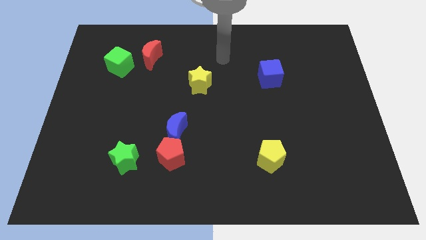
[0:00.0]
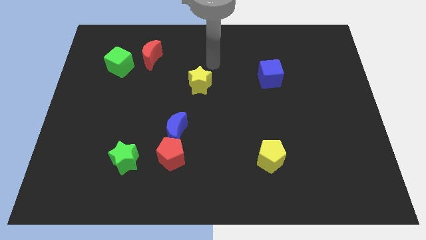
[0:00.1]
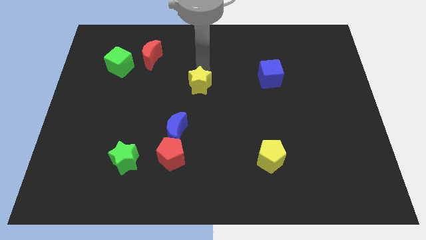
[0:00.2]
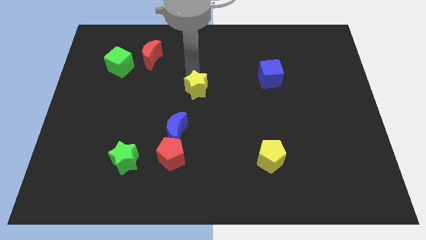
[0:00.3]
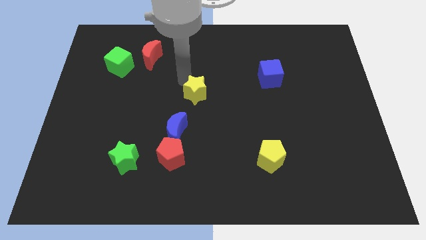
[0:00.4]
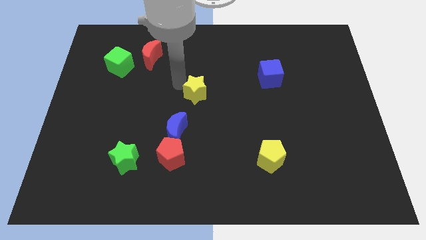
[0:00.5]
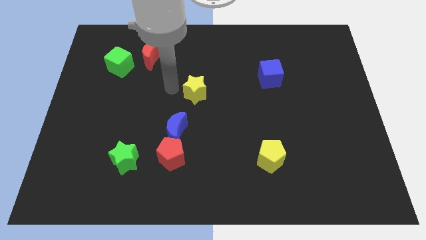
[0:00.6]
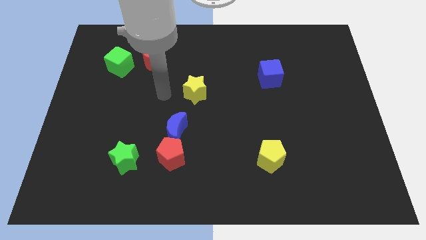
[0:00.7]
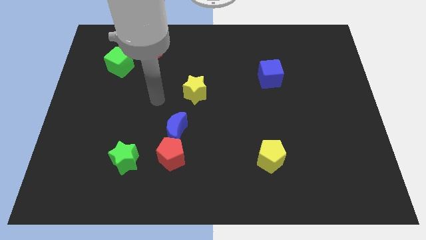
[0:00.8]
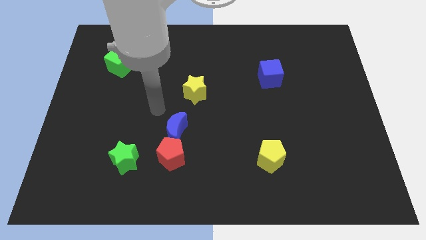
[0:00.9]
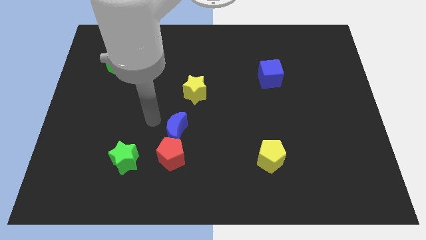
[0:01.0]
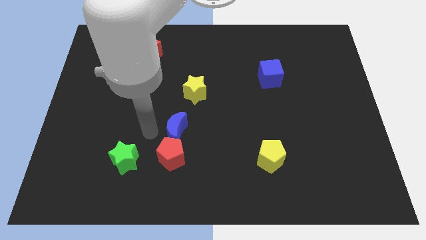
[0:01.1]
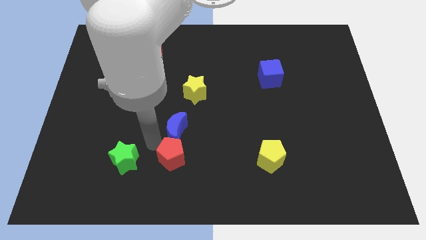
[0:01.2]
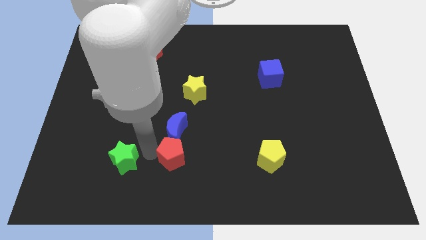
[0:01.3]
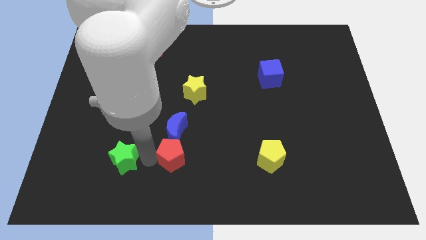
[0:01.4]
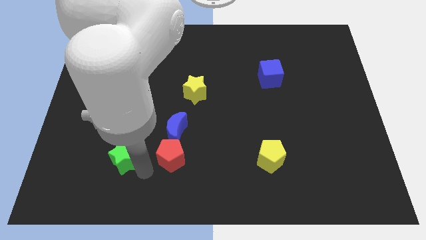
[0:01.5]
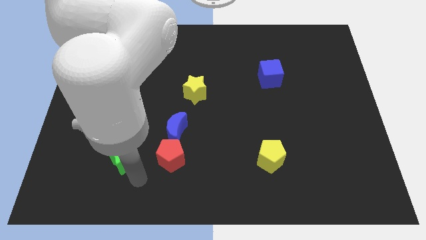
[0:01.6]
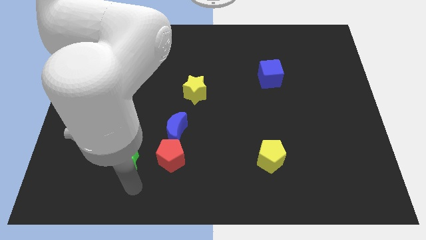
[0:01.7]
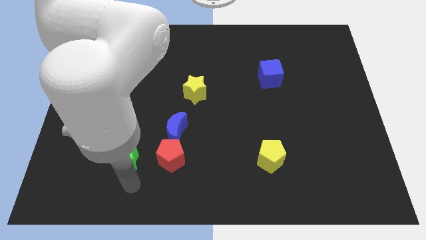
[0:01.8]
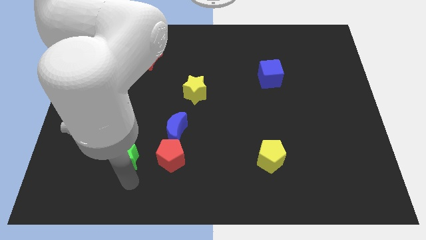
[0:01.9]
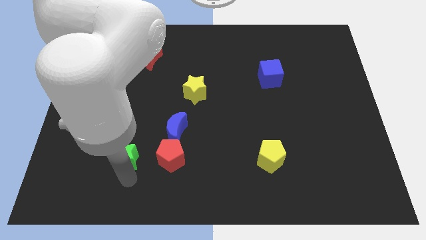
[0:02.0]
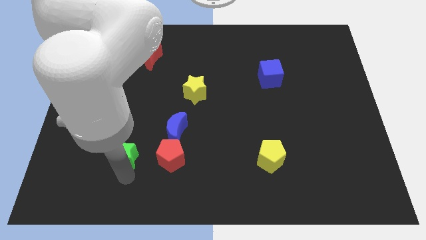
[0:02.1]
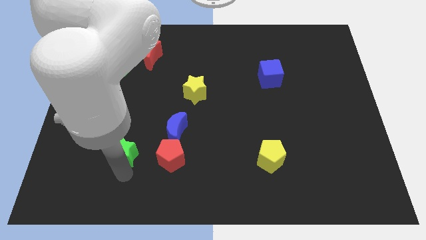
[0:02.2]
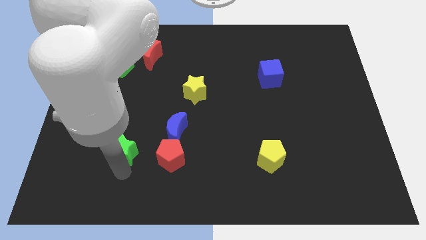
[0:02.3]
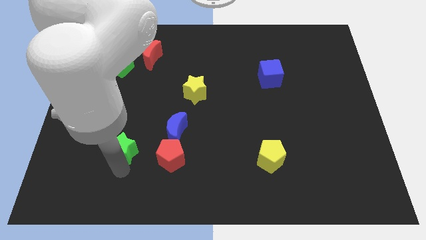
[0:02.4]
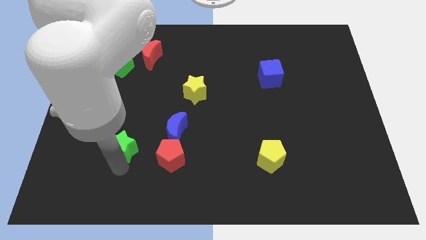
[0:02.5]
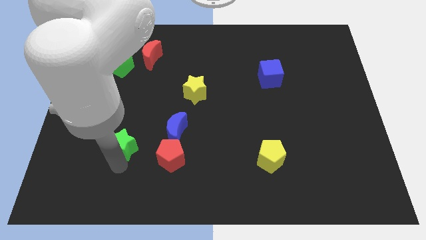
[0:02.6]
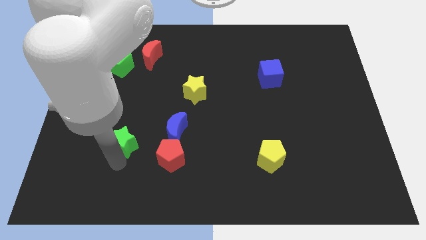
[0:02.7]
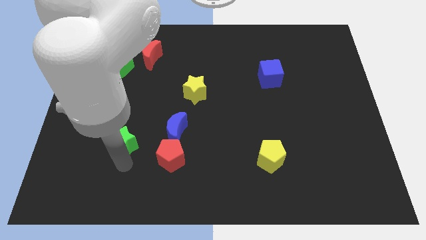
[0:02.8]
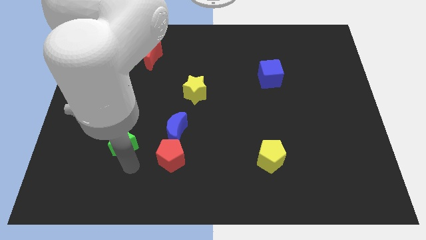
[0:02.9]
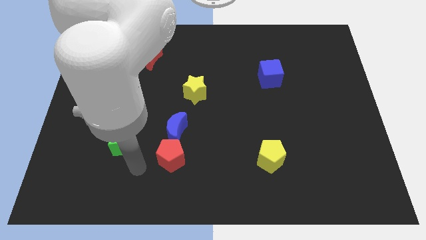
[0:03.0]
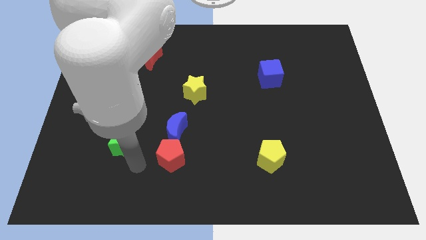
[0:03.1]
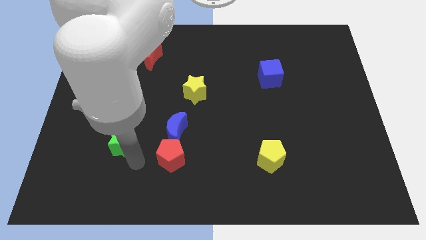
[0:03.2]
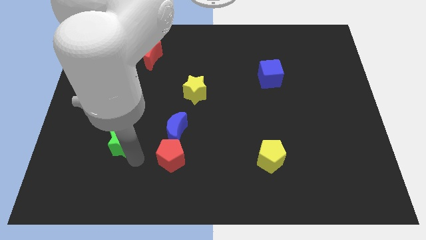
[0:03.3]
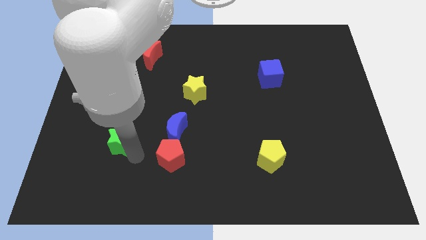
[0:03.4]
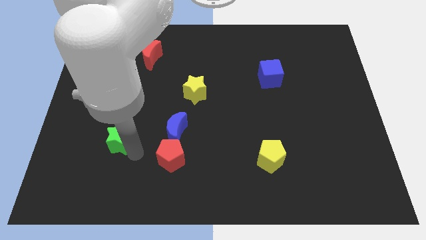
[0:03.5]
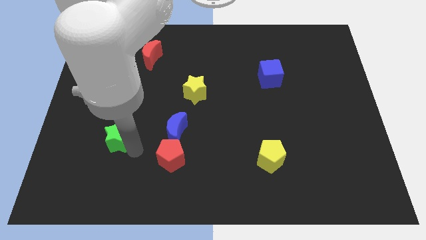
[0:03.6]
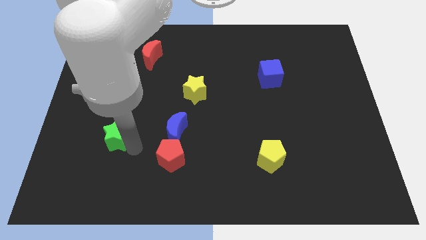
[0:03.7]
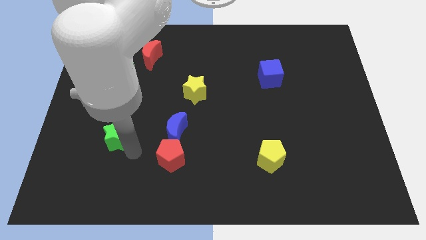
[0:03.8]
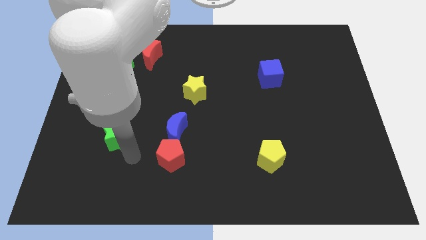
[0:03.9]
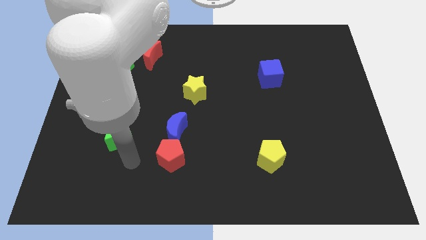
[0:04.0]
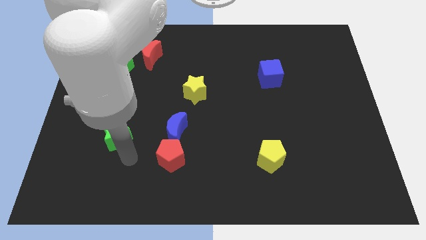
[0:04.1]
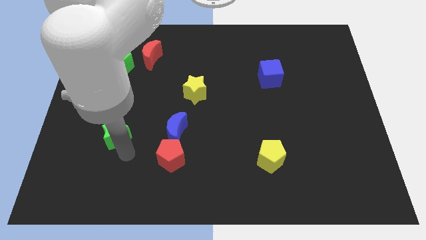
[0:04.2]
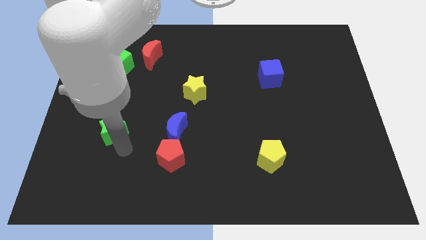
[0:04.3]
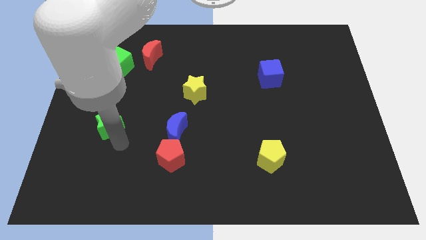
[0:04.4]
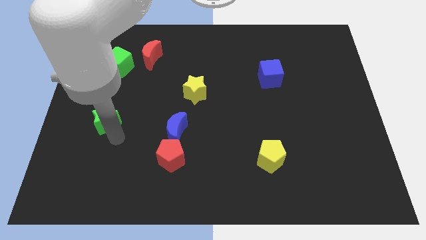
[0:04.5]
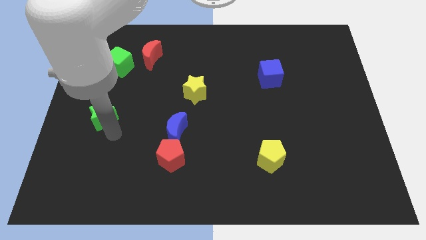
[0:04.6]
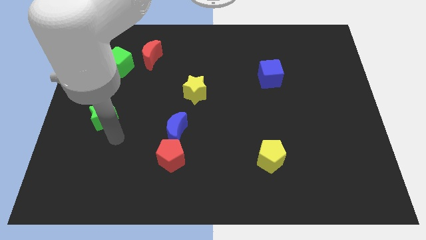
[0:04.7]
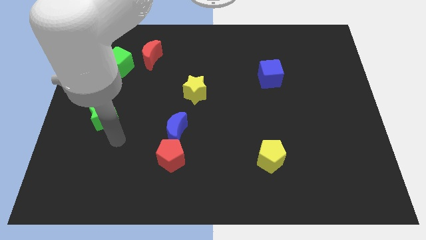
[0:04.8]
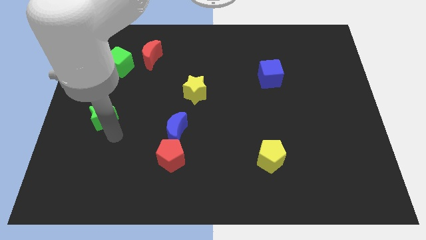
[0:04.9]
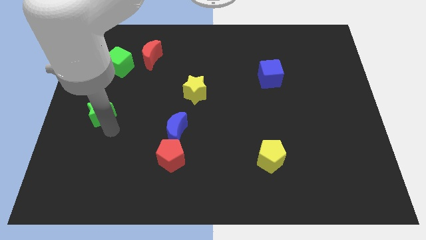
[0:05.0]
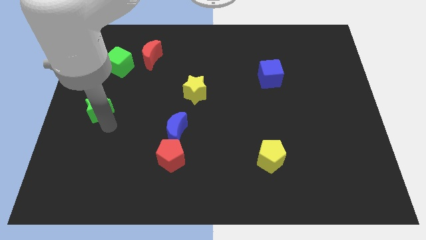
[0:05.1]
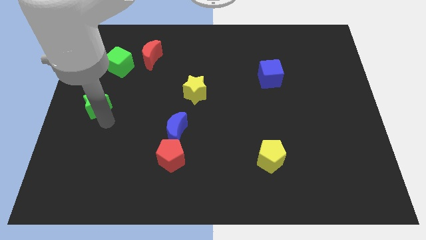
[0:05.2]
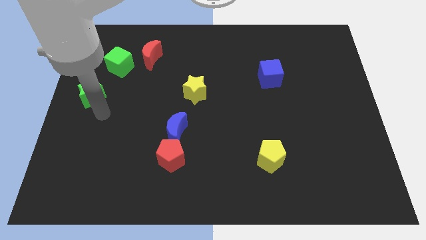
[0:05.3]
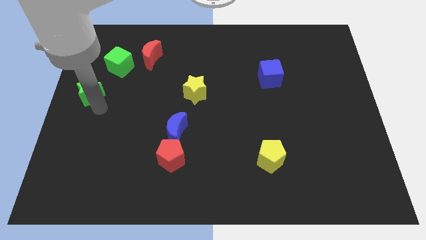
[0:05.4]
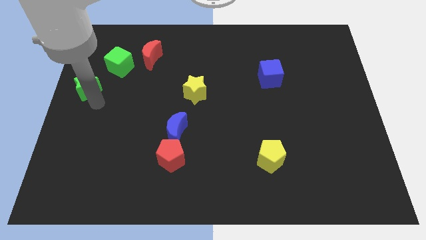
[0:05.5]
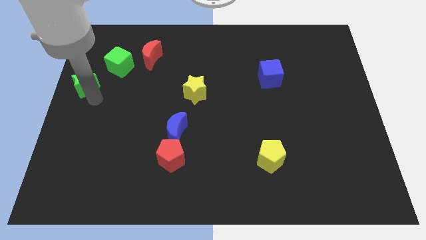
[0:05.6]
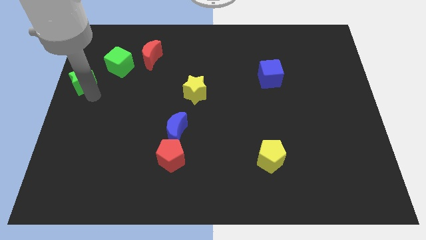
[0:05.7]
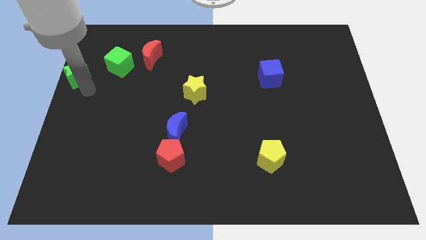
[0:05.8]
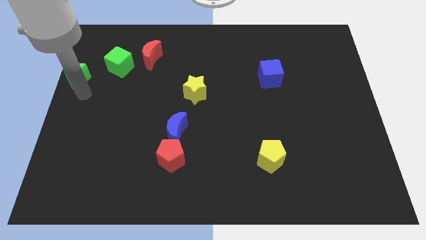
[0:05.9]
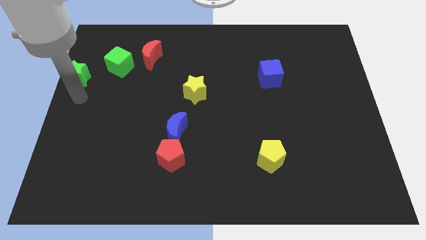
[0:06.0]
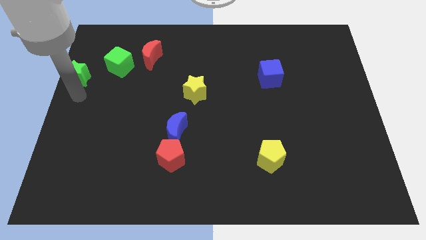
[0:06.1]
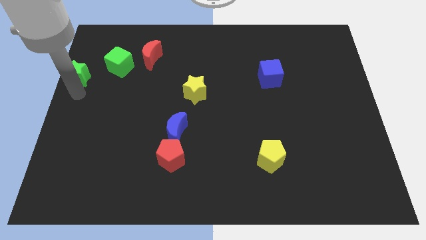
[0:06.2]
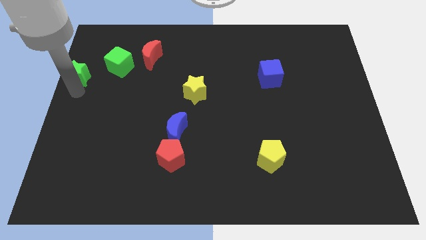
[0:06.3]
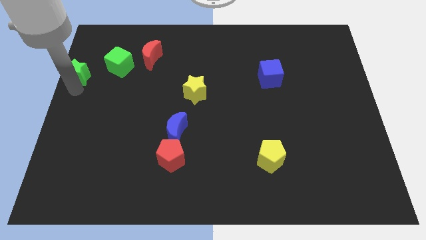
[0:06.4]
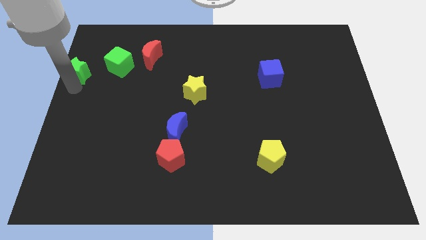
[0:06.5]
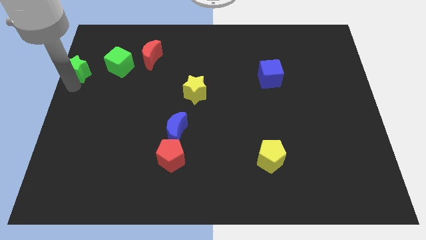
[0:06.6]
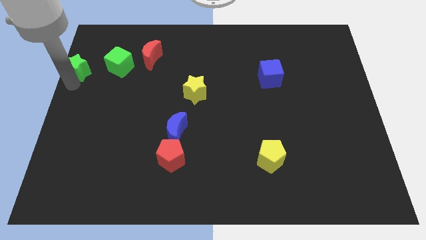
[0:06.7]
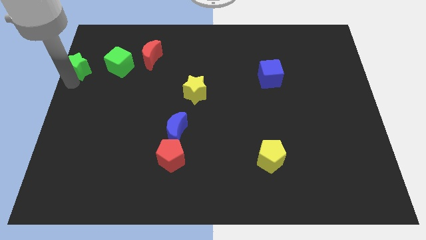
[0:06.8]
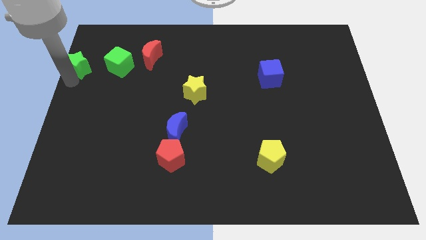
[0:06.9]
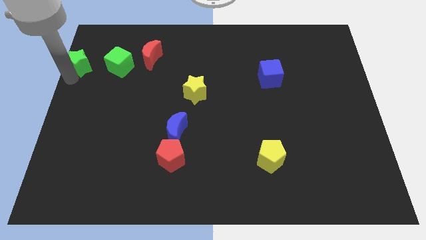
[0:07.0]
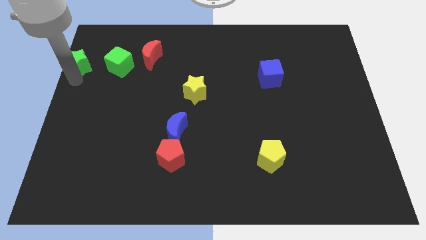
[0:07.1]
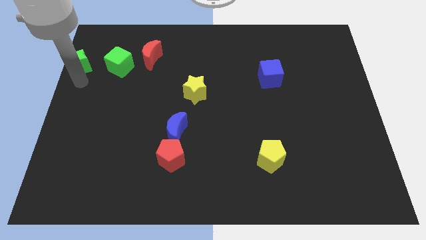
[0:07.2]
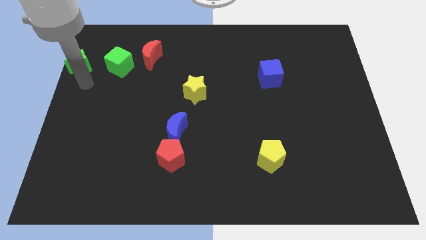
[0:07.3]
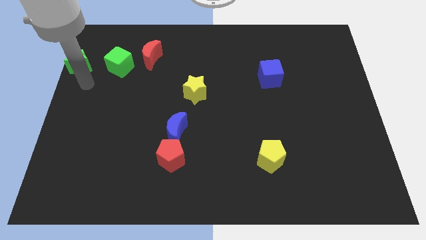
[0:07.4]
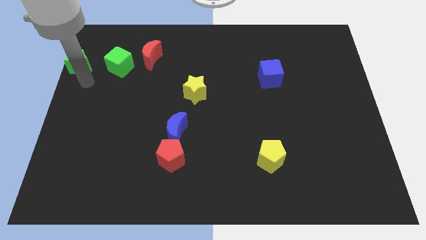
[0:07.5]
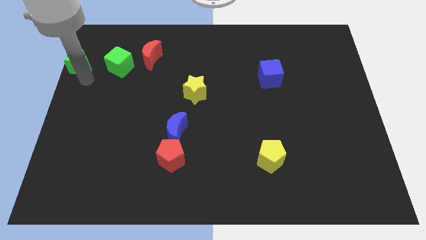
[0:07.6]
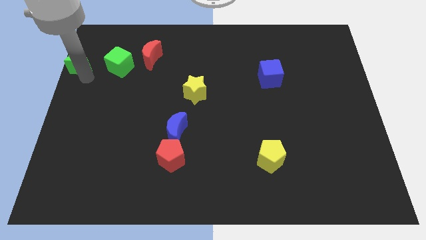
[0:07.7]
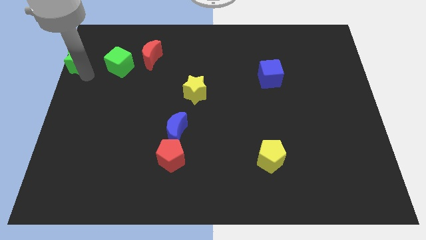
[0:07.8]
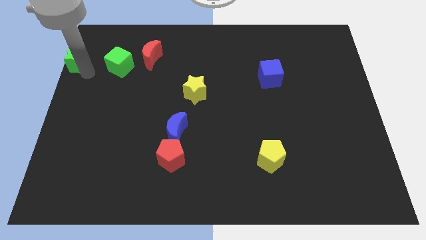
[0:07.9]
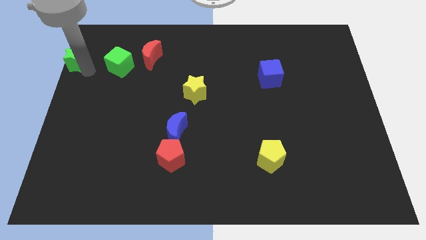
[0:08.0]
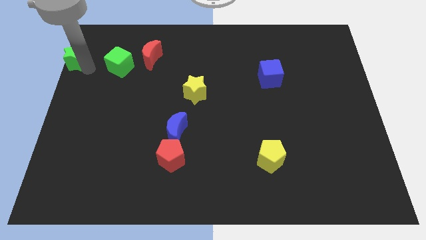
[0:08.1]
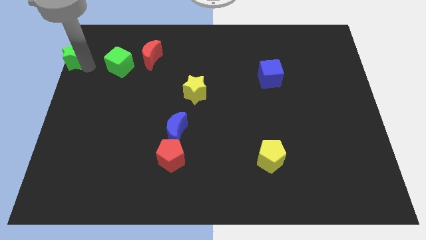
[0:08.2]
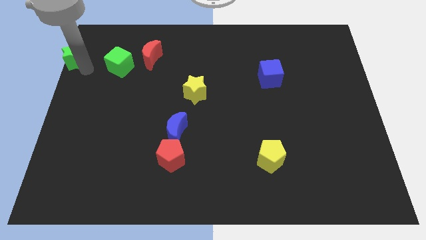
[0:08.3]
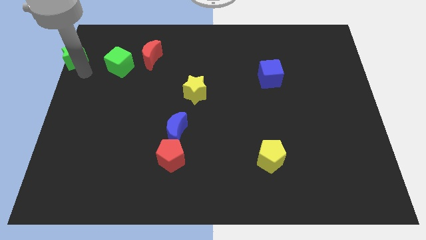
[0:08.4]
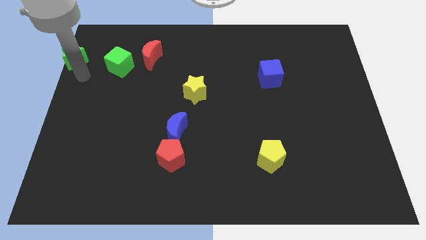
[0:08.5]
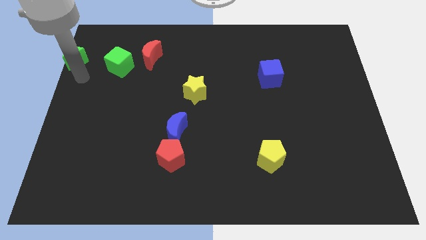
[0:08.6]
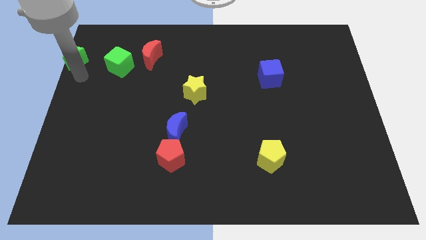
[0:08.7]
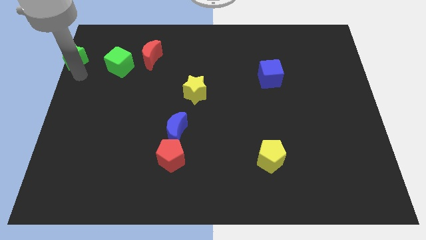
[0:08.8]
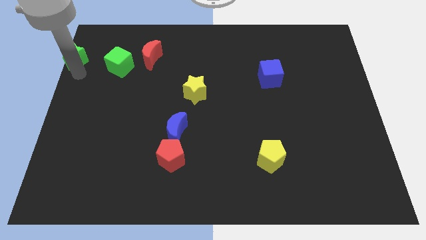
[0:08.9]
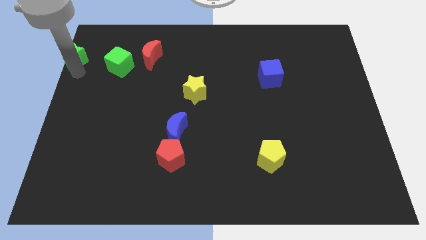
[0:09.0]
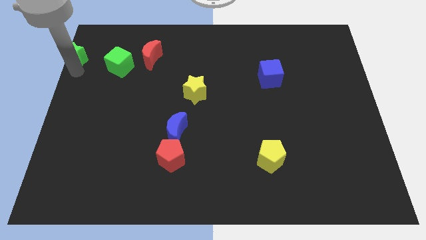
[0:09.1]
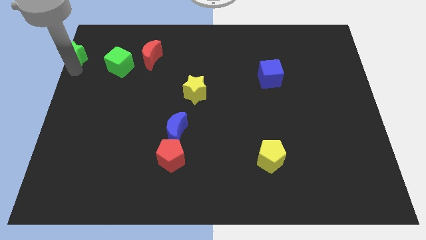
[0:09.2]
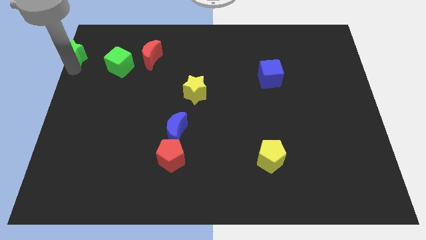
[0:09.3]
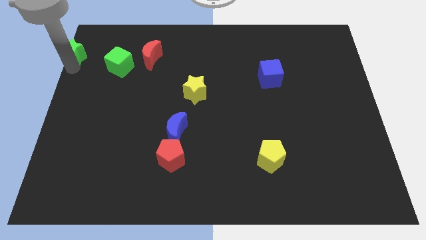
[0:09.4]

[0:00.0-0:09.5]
put the green star to the top left corner
